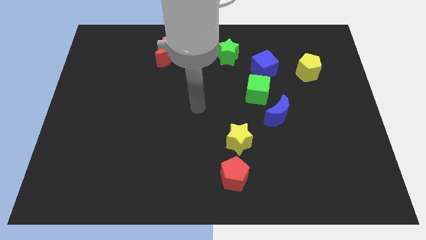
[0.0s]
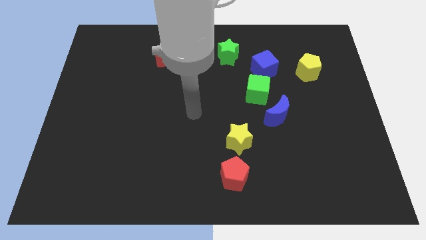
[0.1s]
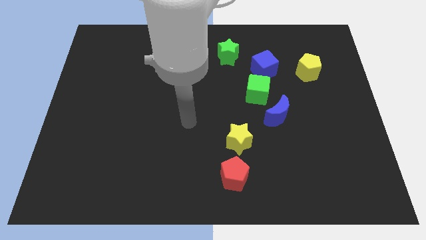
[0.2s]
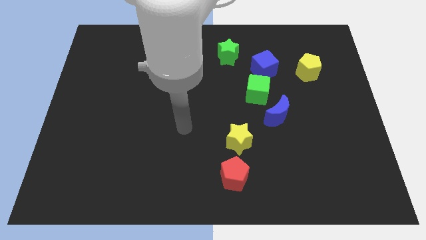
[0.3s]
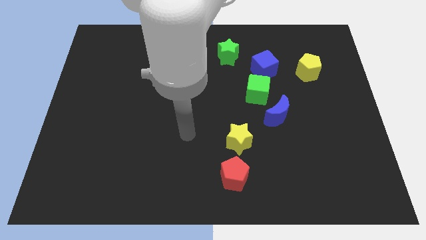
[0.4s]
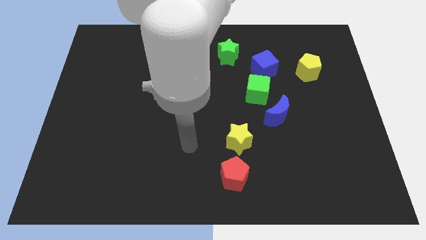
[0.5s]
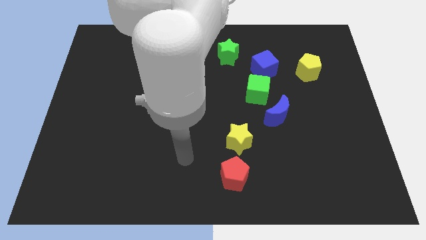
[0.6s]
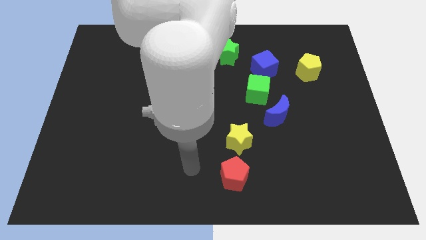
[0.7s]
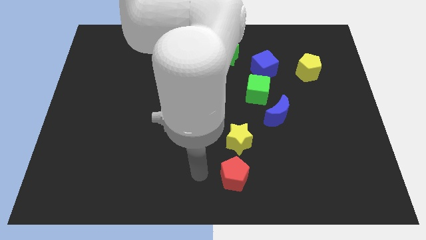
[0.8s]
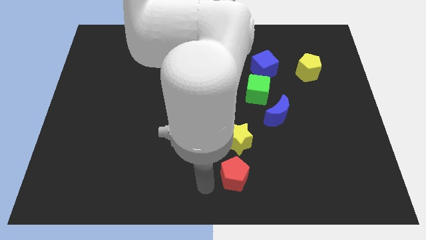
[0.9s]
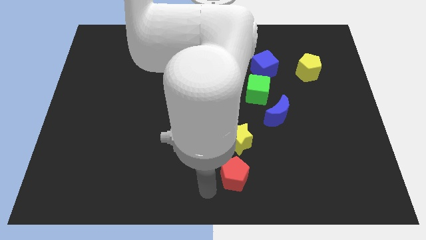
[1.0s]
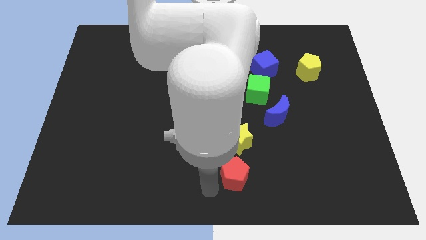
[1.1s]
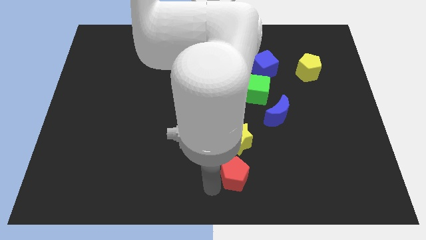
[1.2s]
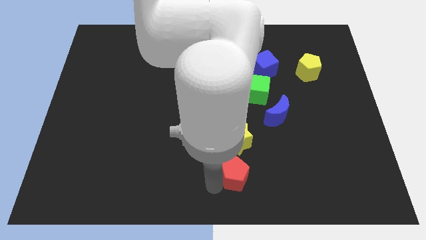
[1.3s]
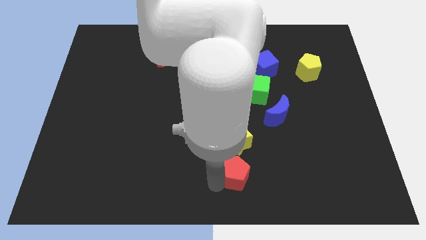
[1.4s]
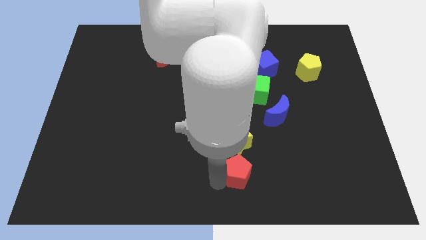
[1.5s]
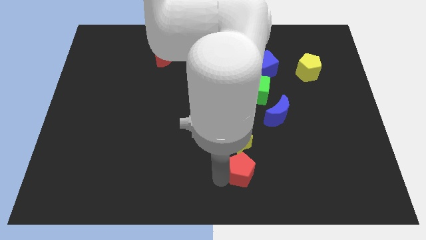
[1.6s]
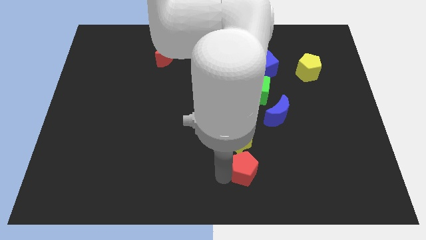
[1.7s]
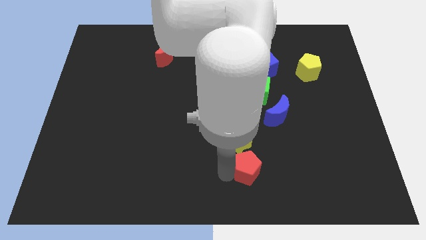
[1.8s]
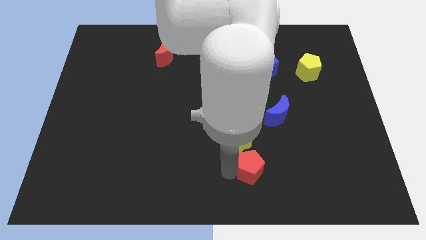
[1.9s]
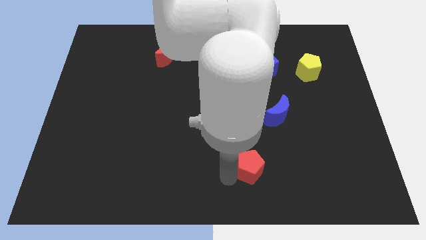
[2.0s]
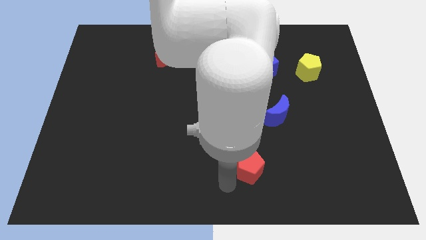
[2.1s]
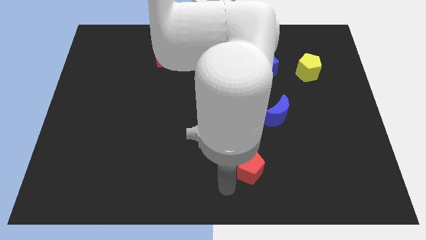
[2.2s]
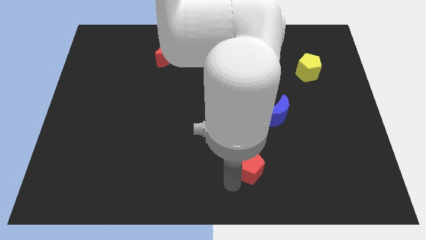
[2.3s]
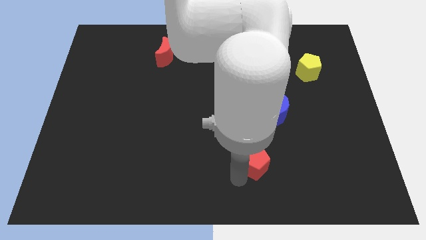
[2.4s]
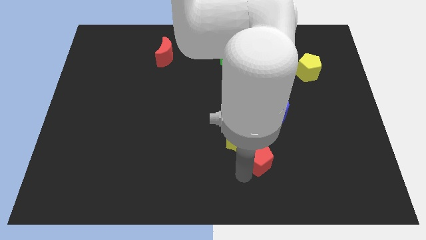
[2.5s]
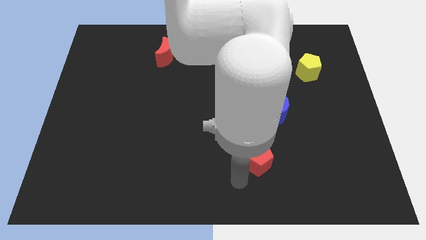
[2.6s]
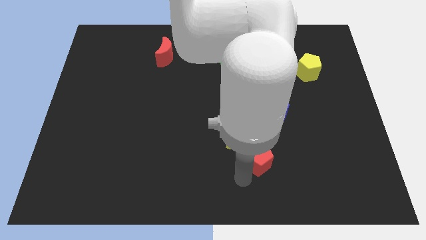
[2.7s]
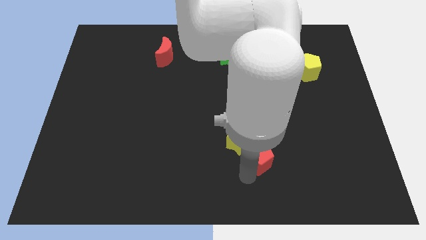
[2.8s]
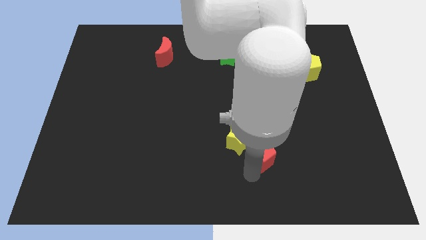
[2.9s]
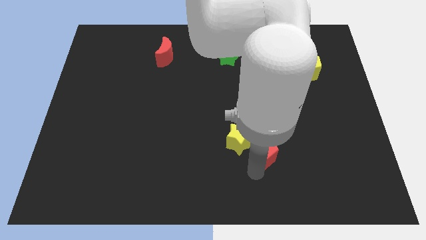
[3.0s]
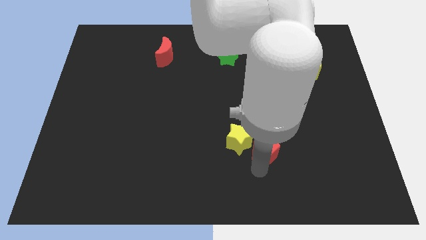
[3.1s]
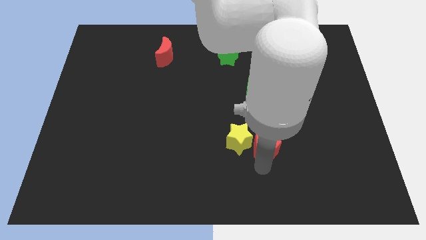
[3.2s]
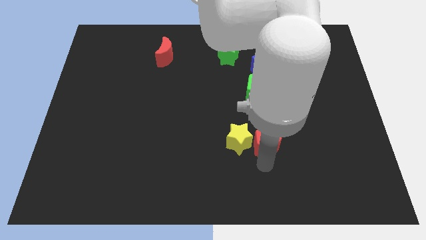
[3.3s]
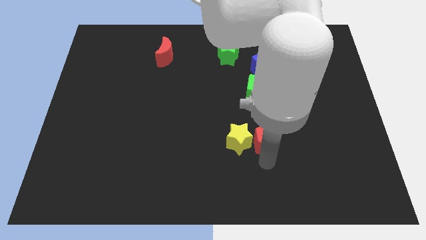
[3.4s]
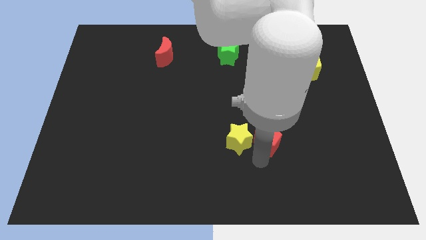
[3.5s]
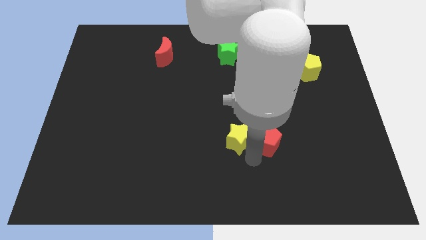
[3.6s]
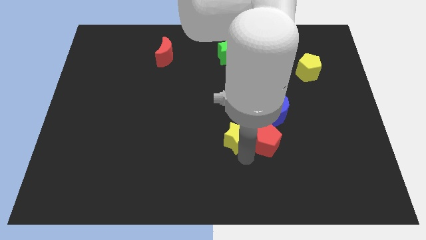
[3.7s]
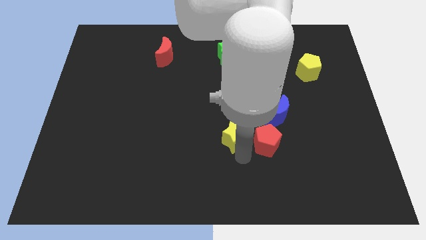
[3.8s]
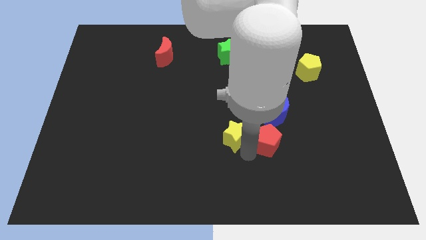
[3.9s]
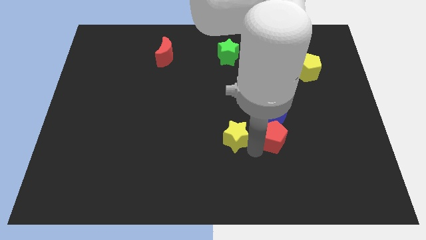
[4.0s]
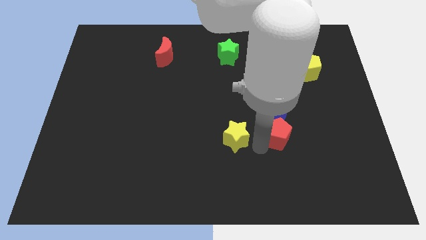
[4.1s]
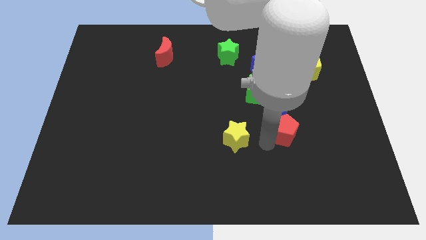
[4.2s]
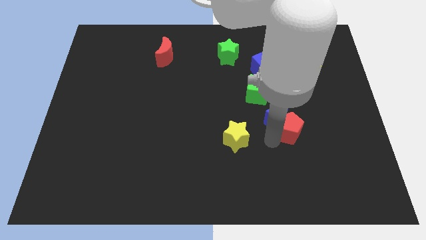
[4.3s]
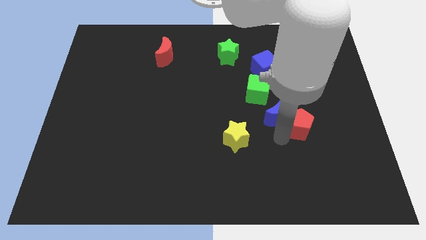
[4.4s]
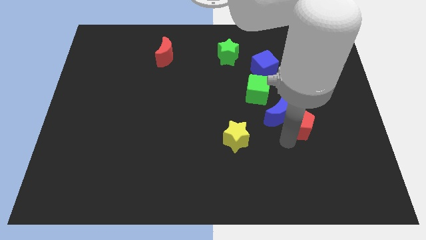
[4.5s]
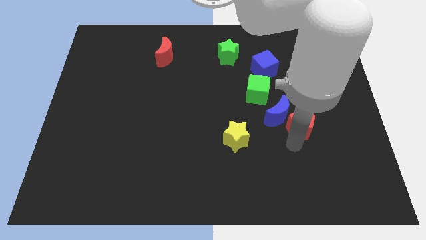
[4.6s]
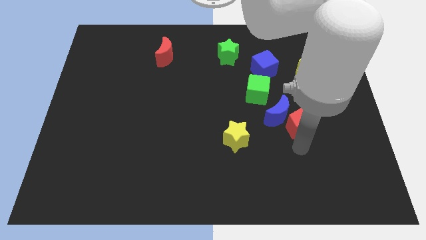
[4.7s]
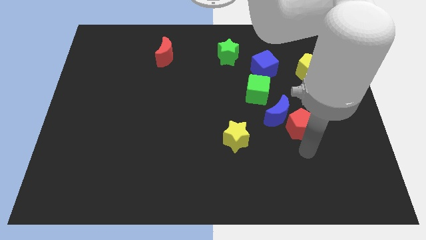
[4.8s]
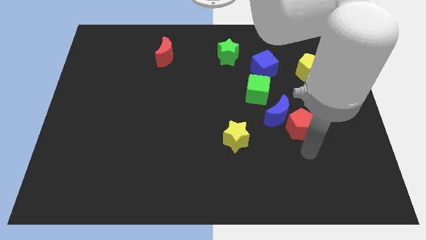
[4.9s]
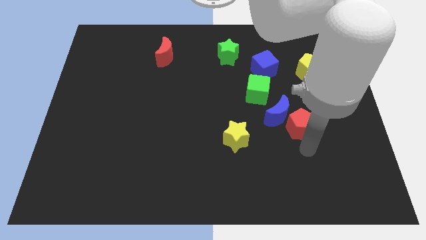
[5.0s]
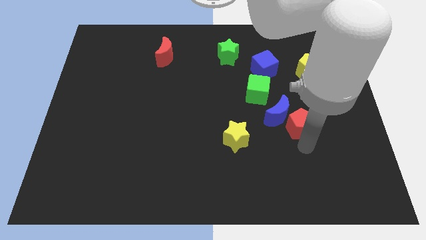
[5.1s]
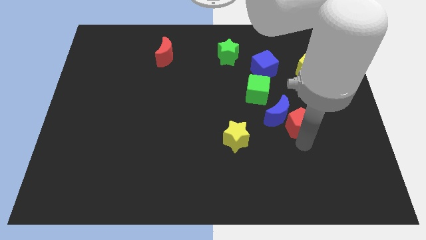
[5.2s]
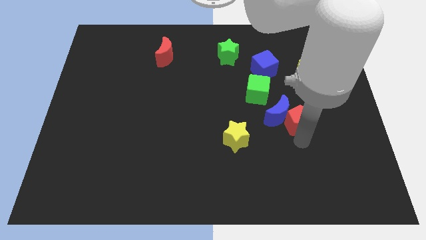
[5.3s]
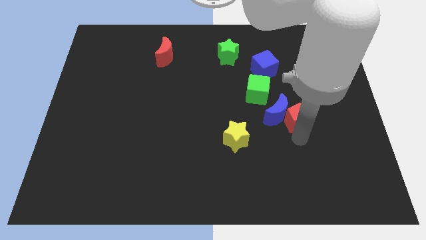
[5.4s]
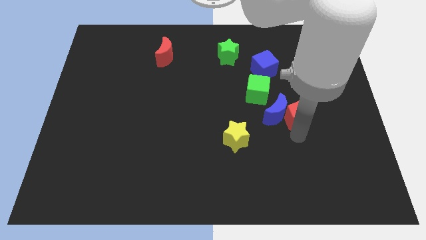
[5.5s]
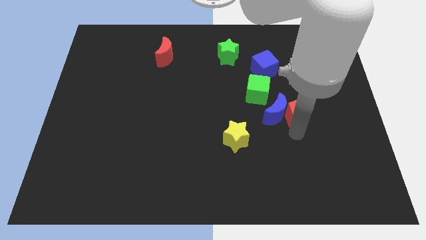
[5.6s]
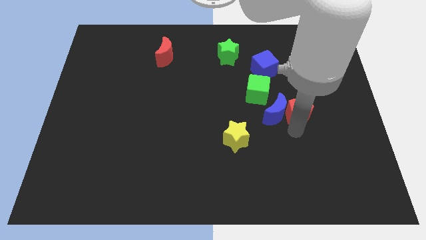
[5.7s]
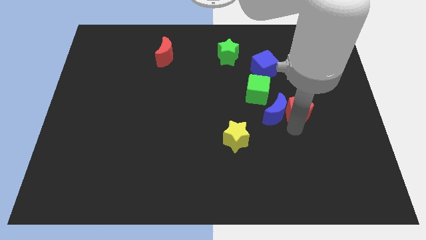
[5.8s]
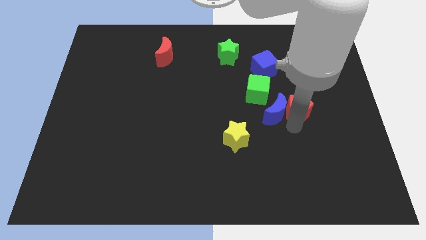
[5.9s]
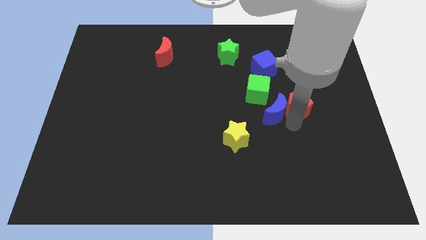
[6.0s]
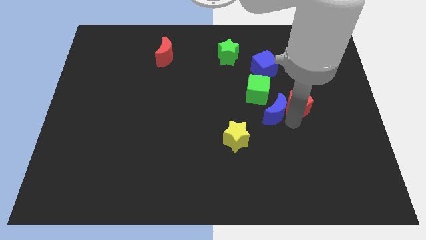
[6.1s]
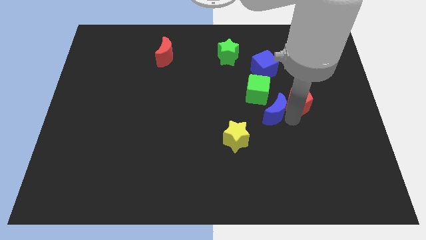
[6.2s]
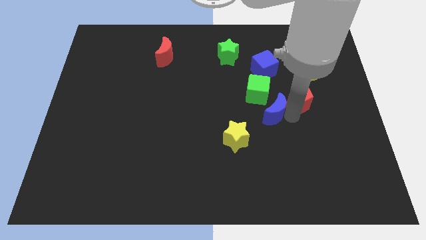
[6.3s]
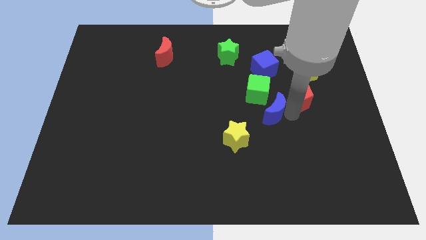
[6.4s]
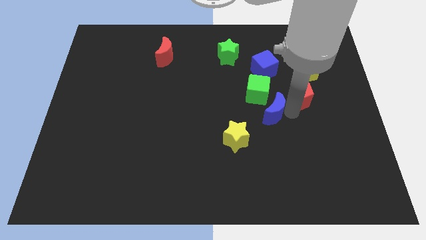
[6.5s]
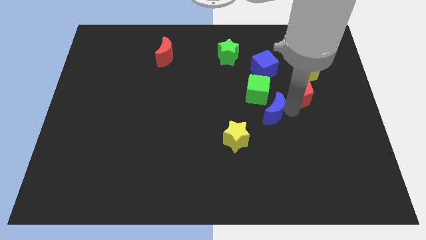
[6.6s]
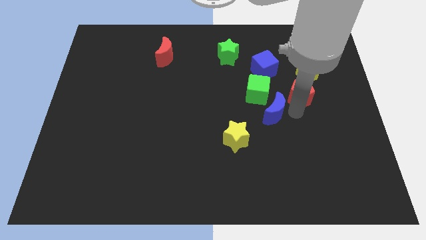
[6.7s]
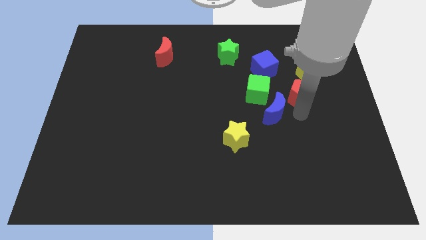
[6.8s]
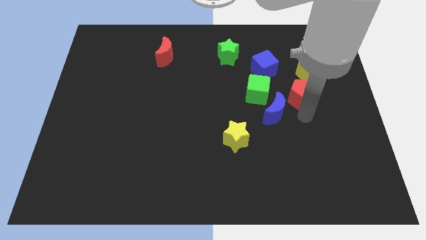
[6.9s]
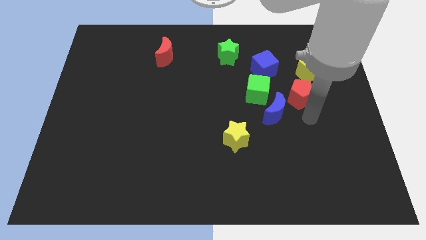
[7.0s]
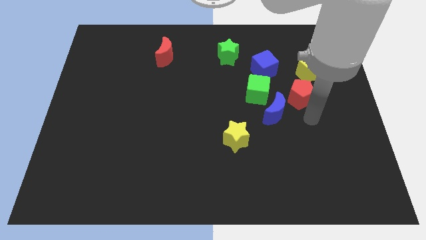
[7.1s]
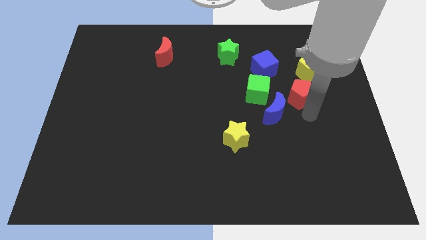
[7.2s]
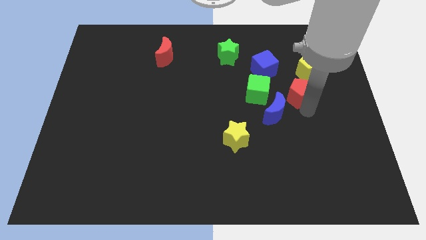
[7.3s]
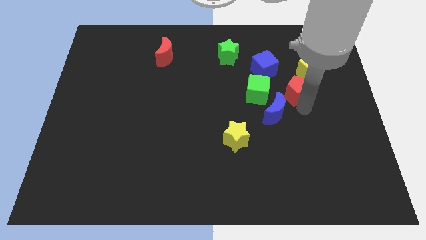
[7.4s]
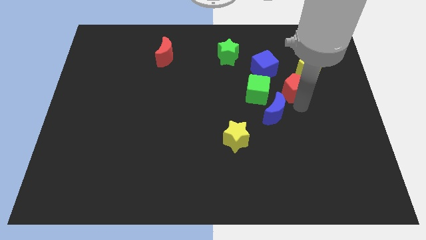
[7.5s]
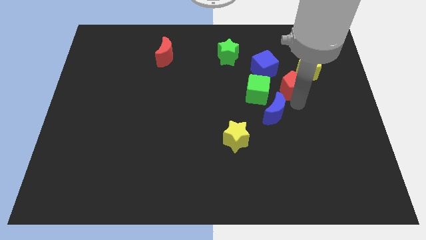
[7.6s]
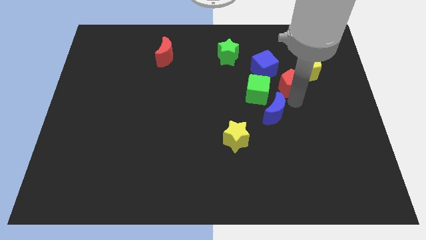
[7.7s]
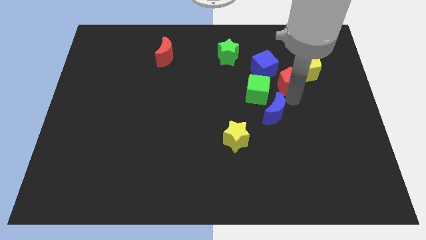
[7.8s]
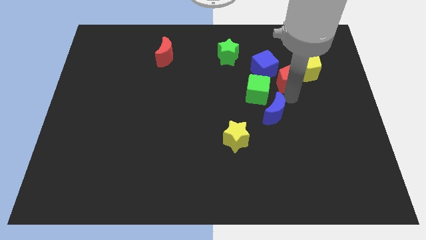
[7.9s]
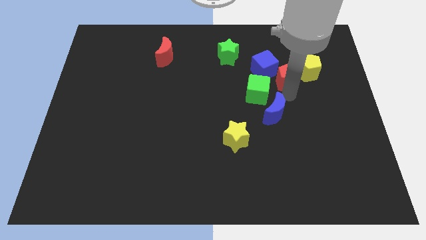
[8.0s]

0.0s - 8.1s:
move the red pentagon towards the yellow pentagon
